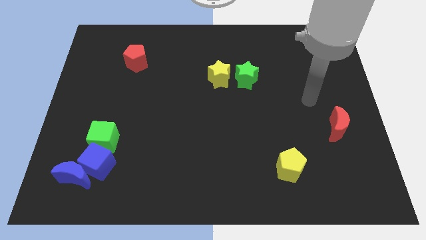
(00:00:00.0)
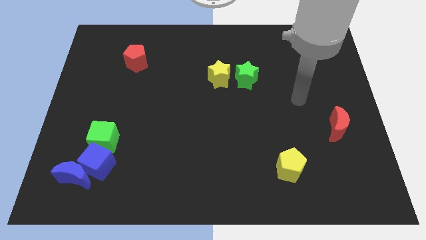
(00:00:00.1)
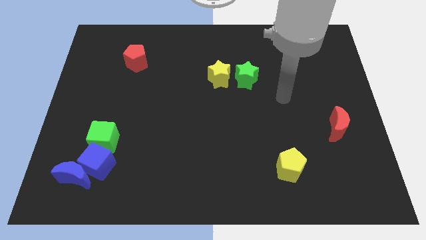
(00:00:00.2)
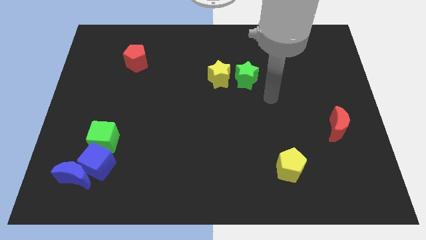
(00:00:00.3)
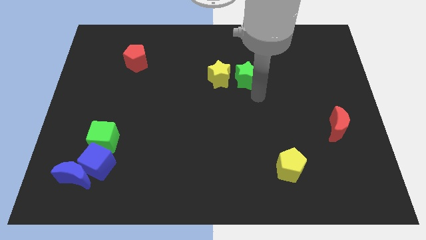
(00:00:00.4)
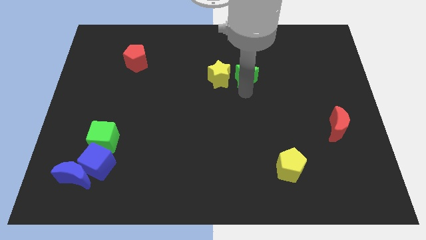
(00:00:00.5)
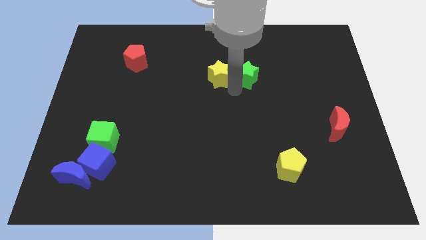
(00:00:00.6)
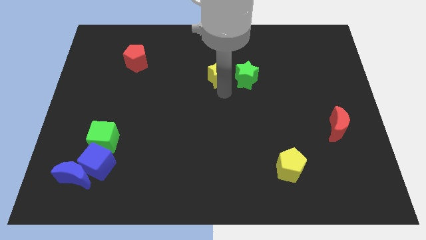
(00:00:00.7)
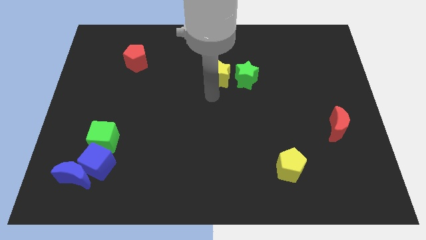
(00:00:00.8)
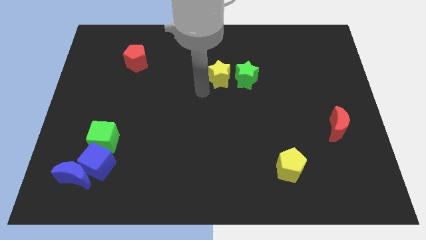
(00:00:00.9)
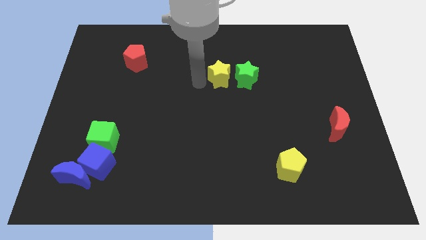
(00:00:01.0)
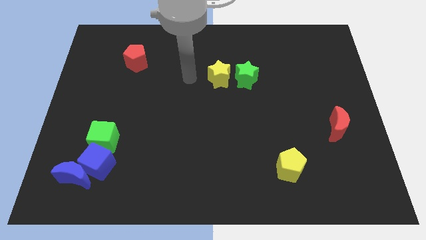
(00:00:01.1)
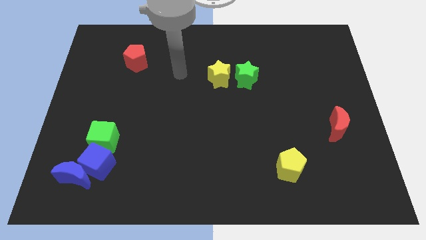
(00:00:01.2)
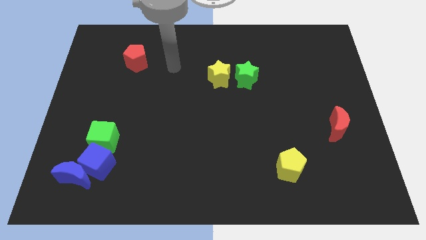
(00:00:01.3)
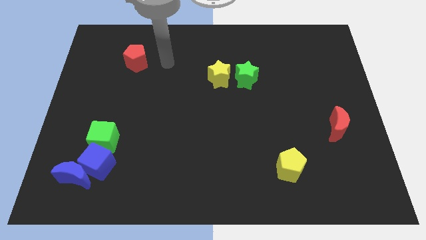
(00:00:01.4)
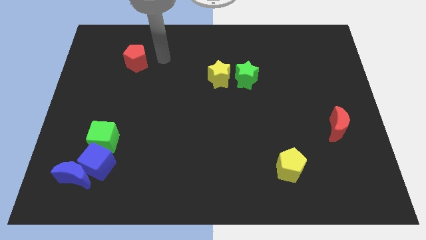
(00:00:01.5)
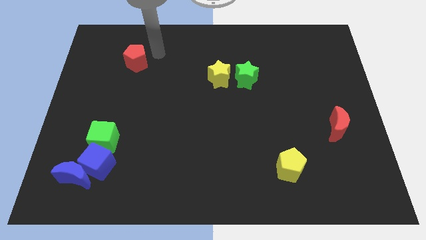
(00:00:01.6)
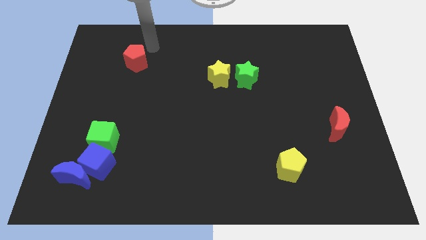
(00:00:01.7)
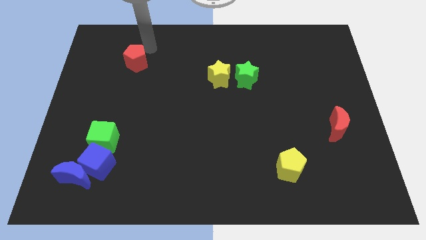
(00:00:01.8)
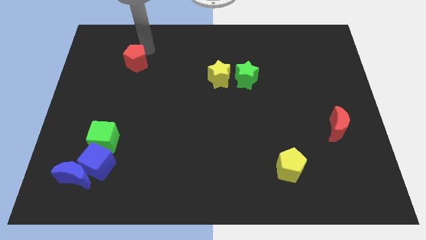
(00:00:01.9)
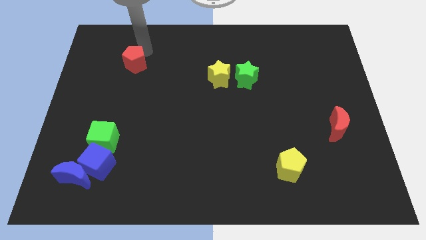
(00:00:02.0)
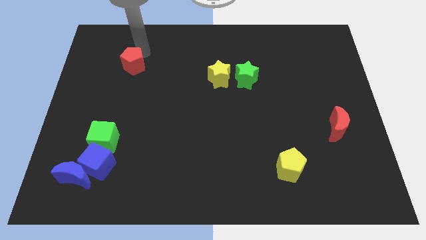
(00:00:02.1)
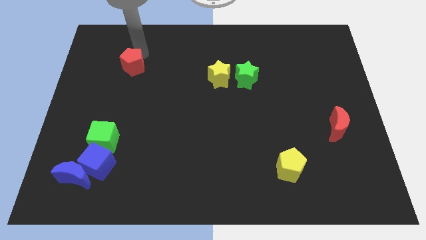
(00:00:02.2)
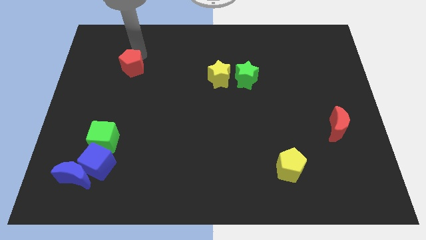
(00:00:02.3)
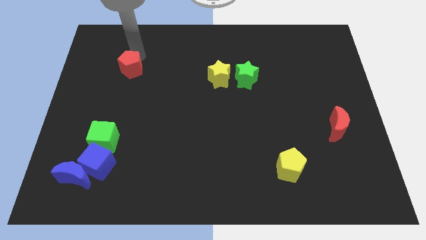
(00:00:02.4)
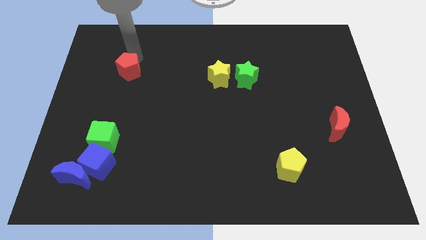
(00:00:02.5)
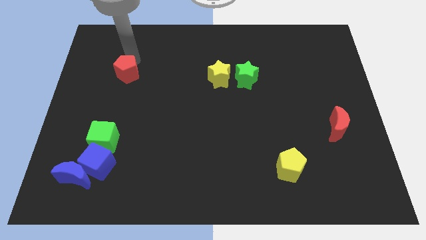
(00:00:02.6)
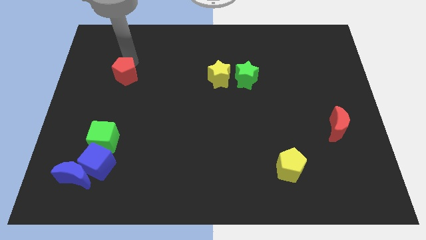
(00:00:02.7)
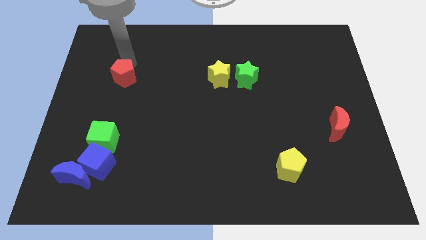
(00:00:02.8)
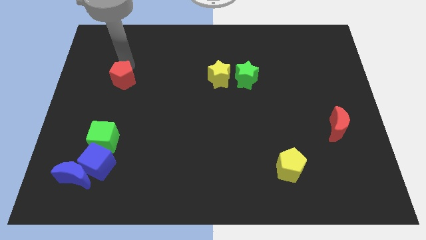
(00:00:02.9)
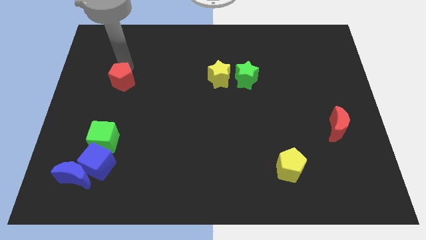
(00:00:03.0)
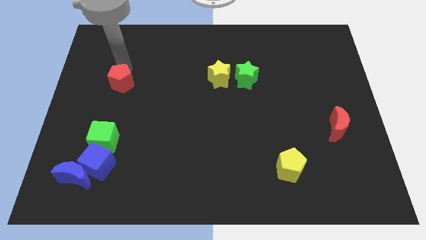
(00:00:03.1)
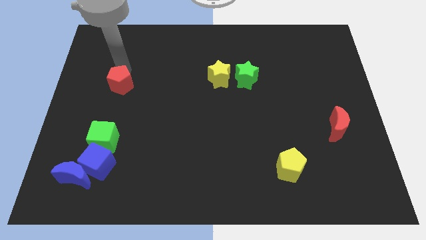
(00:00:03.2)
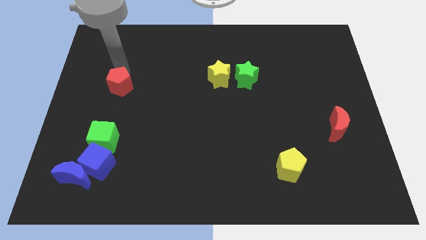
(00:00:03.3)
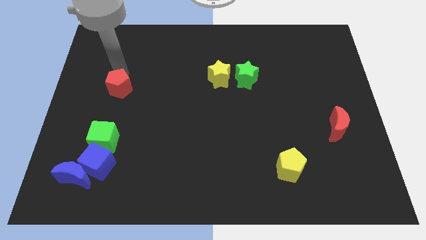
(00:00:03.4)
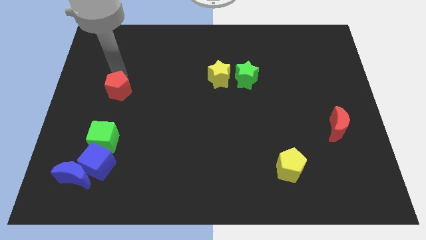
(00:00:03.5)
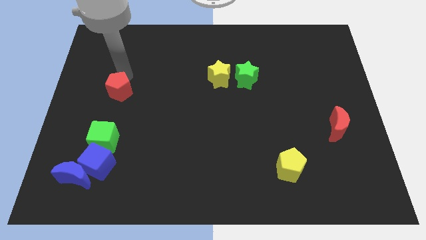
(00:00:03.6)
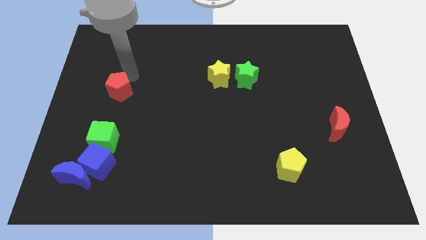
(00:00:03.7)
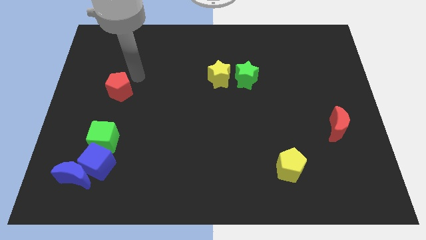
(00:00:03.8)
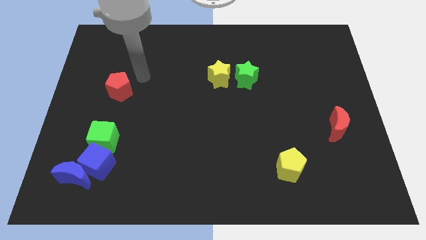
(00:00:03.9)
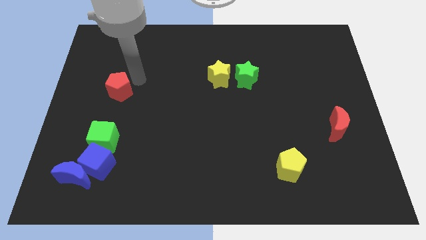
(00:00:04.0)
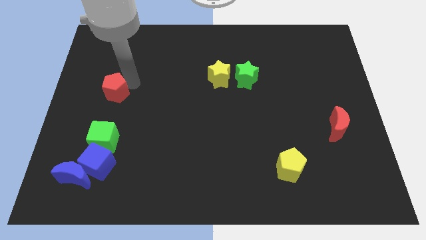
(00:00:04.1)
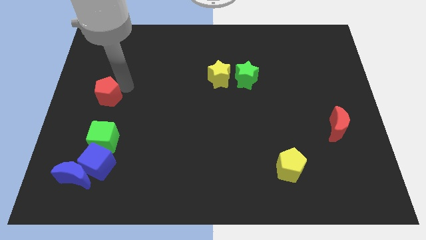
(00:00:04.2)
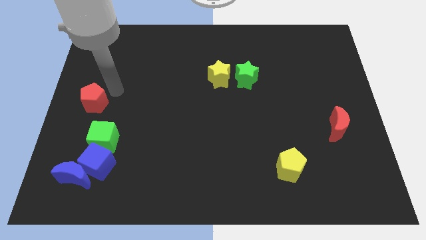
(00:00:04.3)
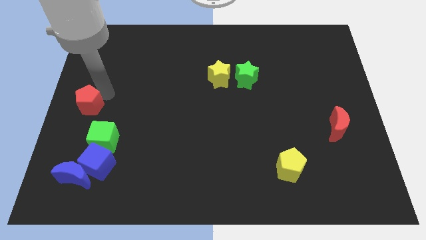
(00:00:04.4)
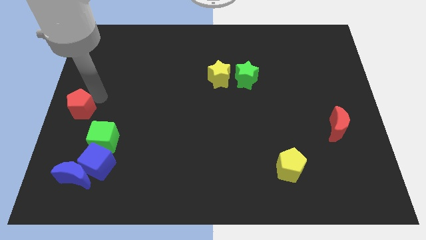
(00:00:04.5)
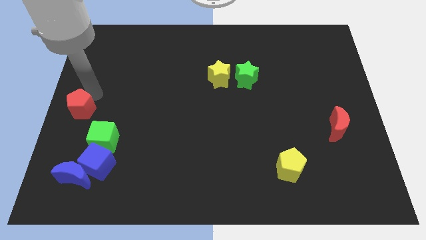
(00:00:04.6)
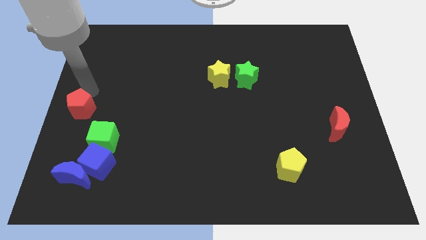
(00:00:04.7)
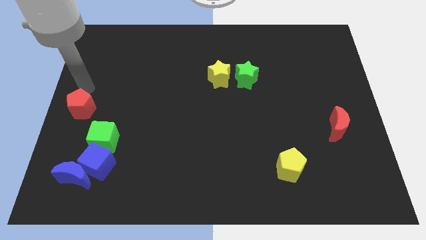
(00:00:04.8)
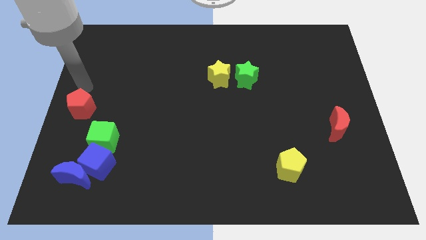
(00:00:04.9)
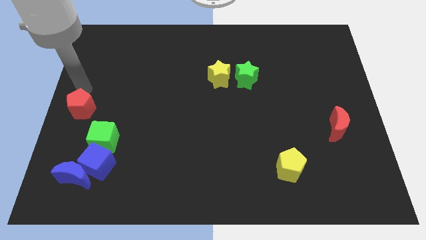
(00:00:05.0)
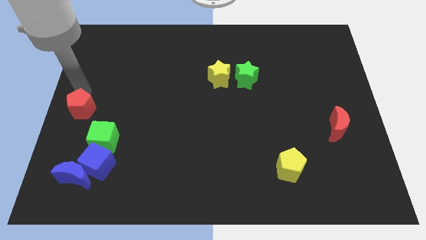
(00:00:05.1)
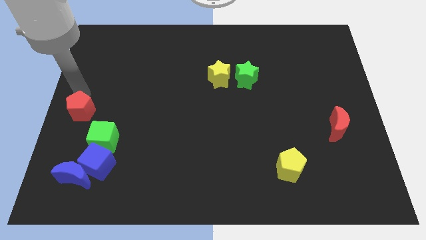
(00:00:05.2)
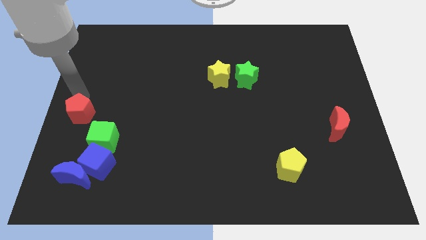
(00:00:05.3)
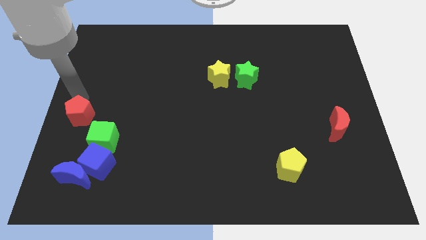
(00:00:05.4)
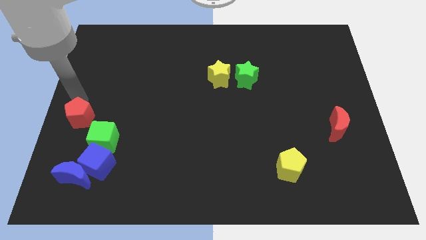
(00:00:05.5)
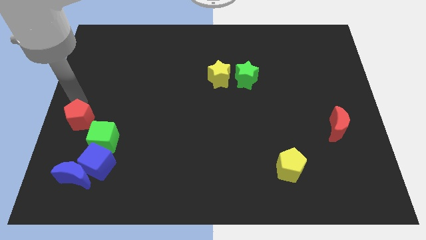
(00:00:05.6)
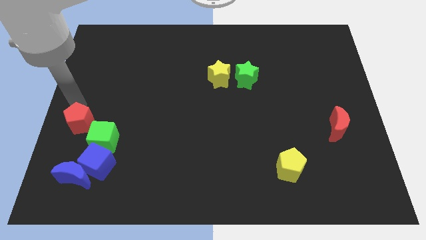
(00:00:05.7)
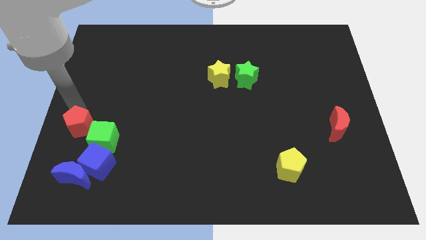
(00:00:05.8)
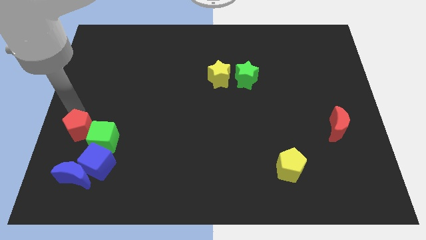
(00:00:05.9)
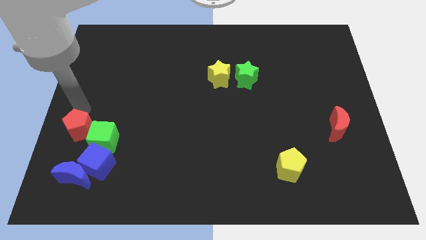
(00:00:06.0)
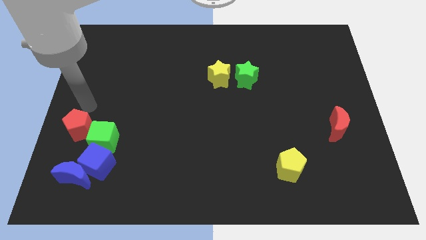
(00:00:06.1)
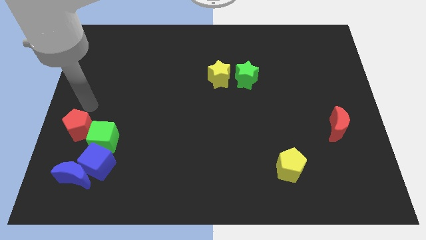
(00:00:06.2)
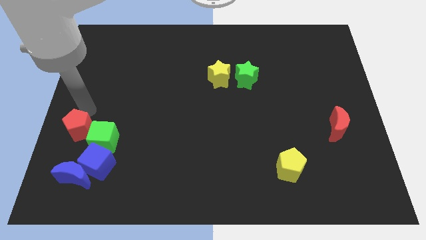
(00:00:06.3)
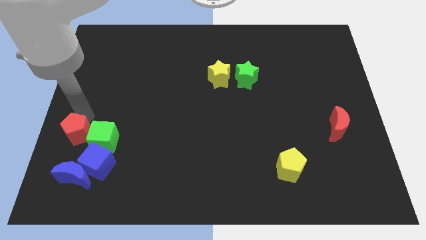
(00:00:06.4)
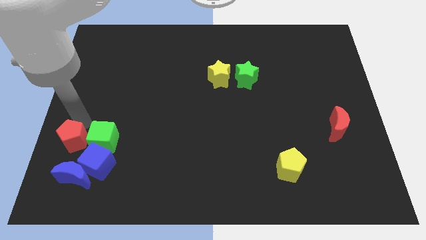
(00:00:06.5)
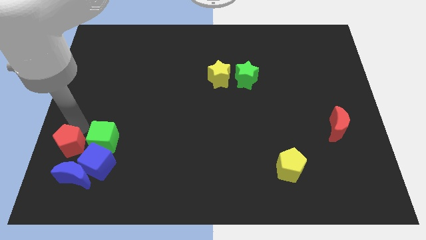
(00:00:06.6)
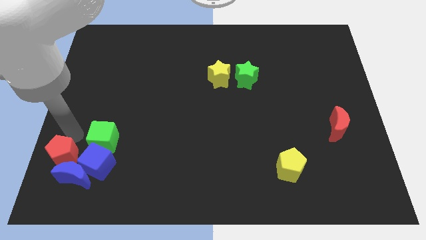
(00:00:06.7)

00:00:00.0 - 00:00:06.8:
push the red pentagon next to the blue moon
